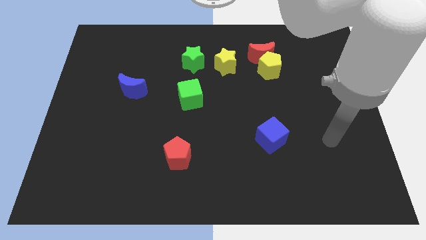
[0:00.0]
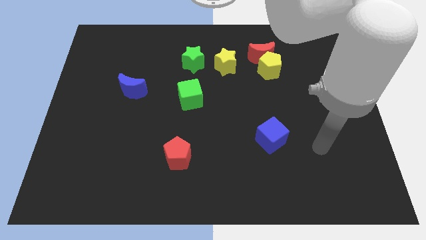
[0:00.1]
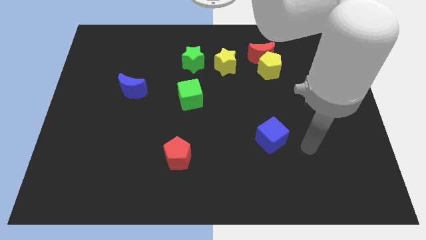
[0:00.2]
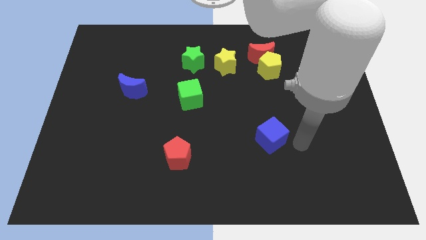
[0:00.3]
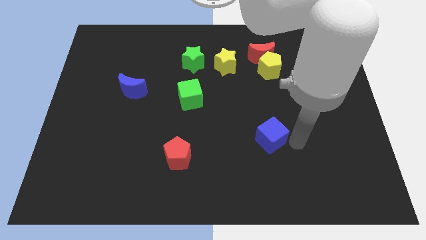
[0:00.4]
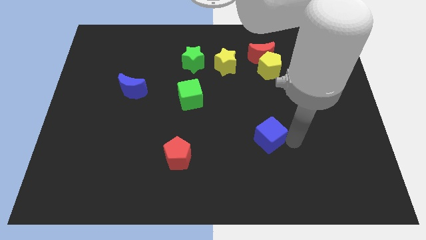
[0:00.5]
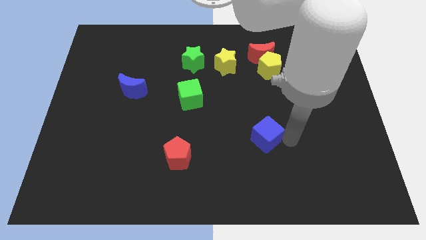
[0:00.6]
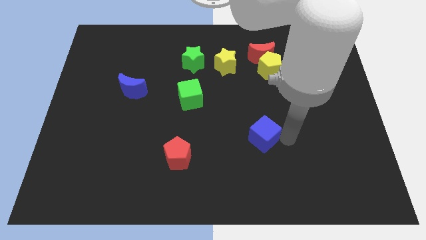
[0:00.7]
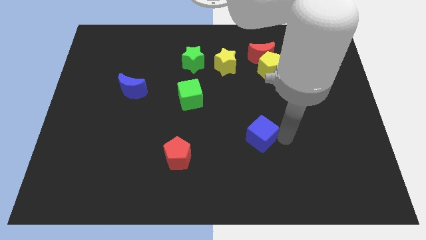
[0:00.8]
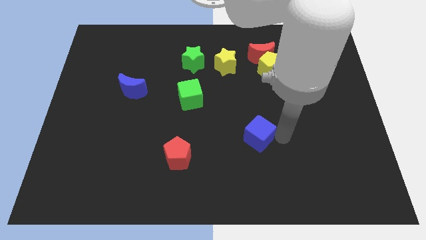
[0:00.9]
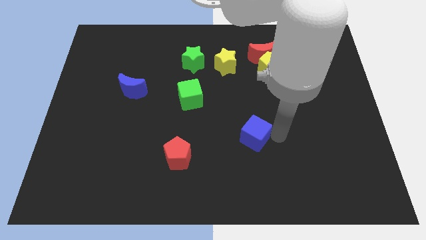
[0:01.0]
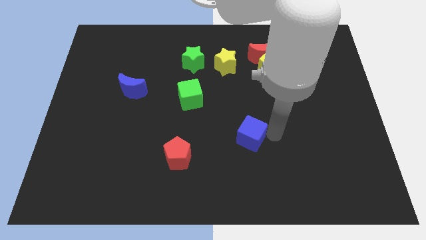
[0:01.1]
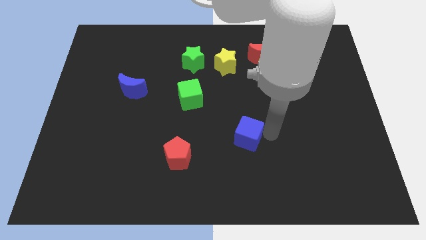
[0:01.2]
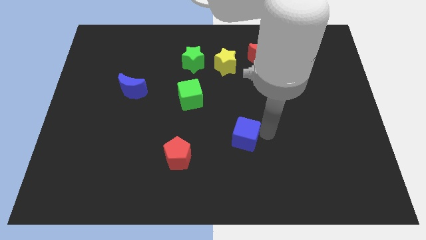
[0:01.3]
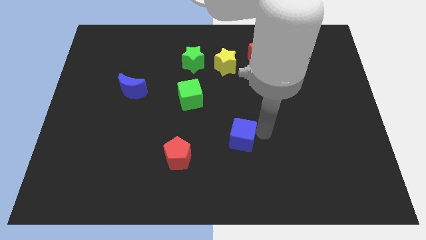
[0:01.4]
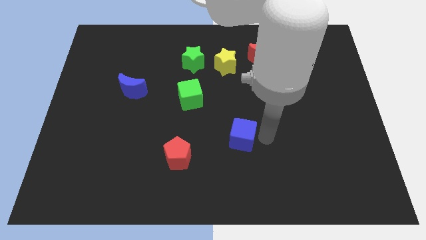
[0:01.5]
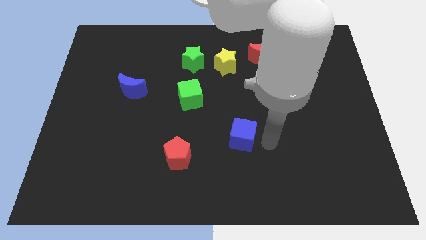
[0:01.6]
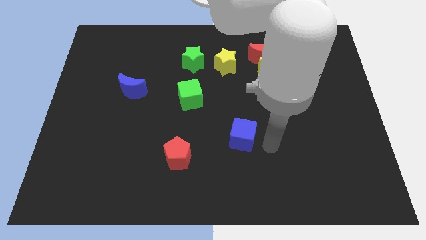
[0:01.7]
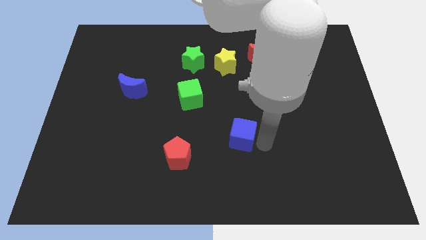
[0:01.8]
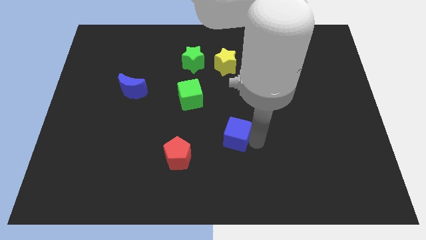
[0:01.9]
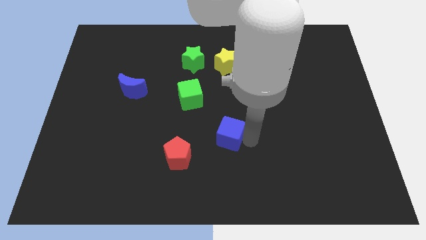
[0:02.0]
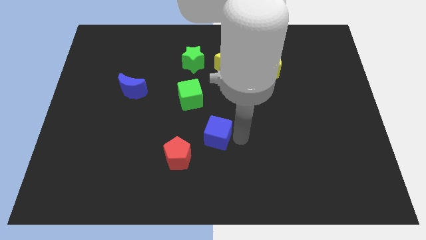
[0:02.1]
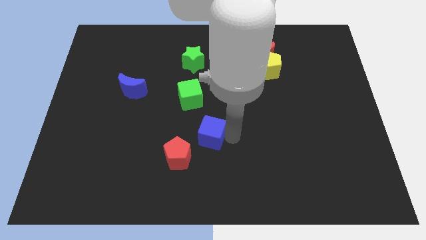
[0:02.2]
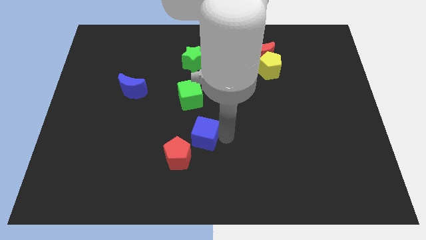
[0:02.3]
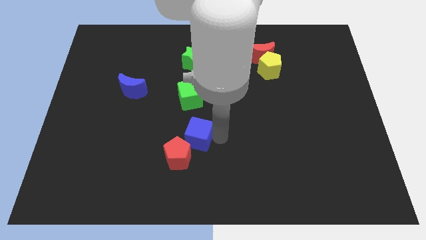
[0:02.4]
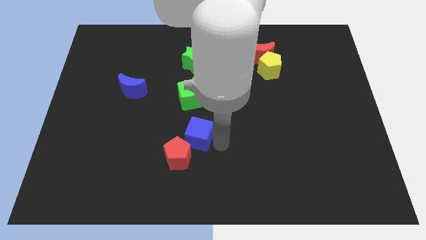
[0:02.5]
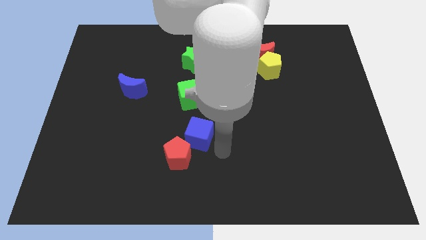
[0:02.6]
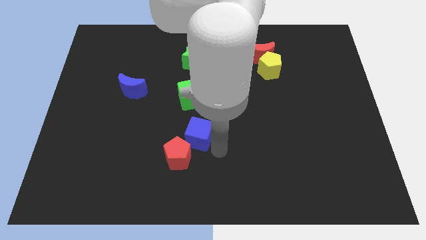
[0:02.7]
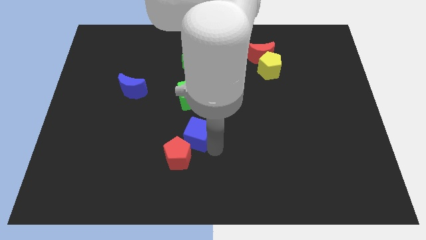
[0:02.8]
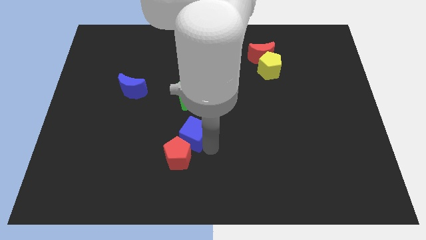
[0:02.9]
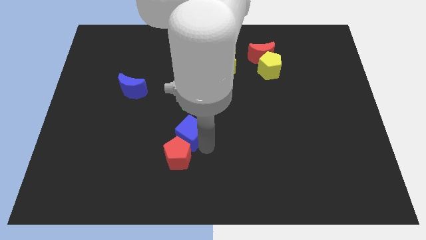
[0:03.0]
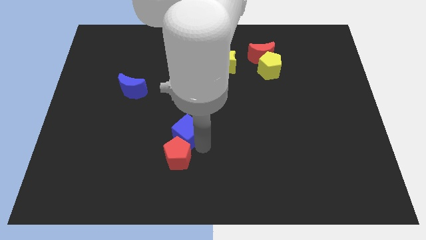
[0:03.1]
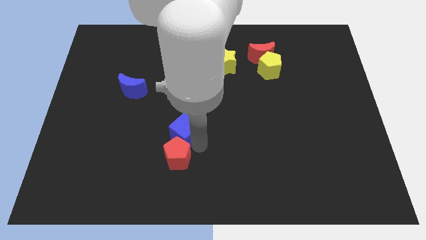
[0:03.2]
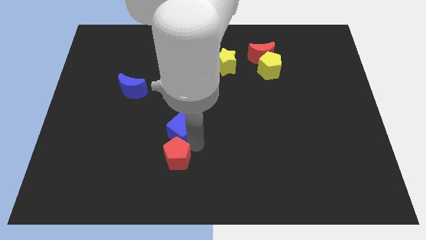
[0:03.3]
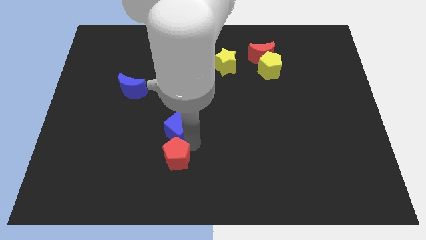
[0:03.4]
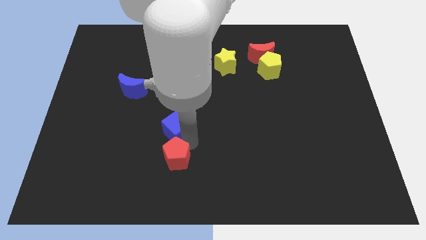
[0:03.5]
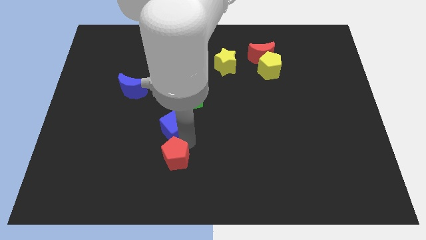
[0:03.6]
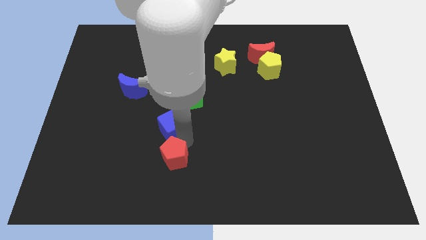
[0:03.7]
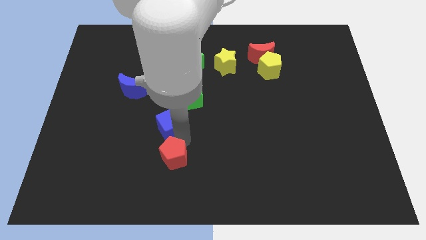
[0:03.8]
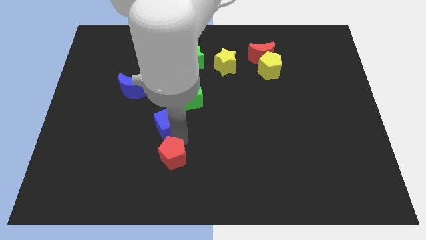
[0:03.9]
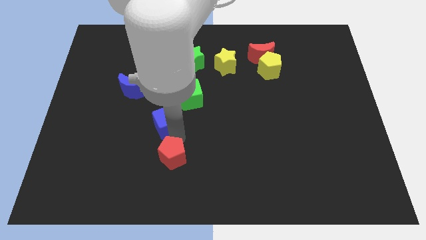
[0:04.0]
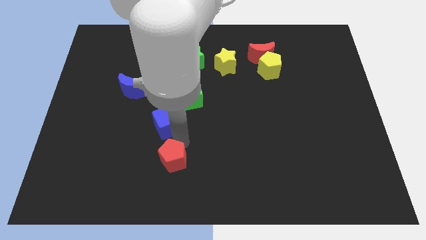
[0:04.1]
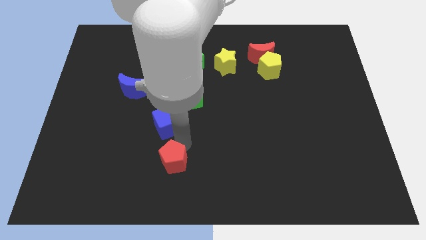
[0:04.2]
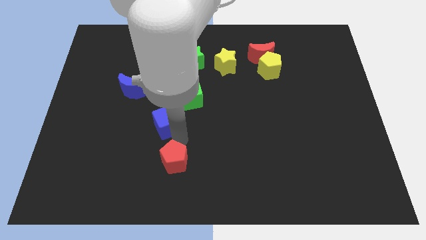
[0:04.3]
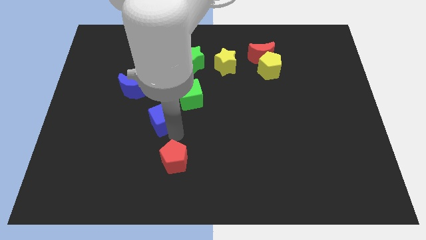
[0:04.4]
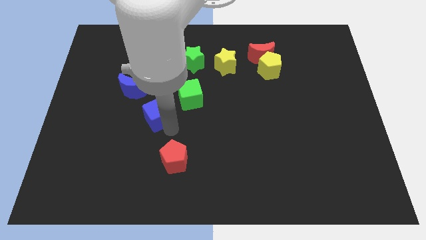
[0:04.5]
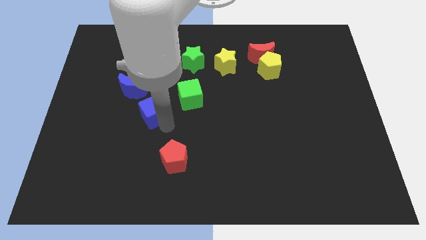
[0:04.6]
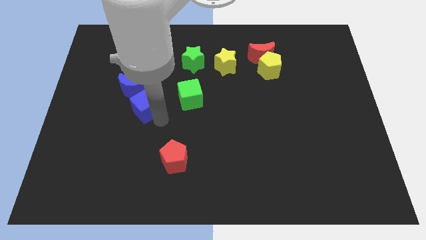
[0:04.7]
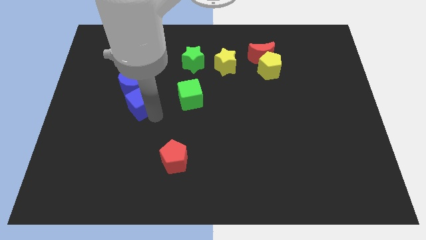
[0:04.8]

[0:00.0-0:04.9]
put the blue cube close to the blue moon

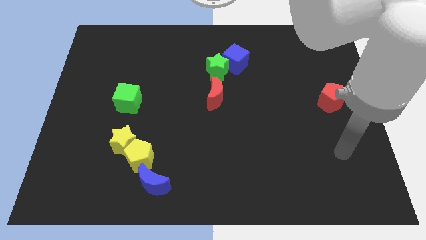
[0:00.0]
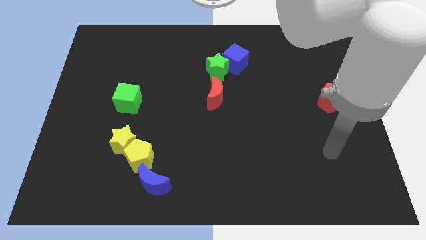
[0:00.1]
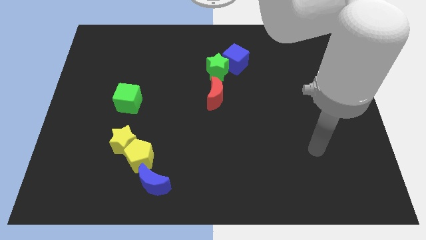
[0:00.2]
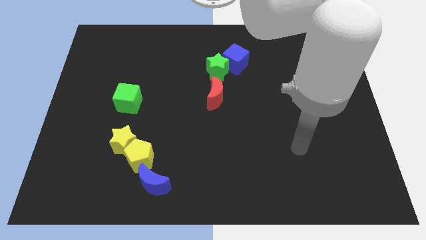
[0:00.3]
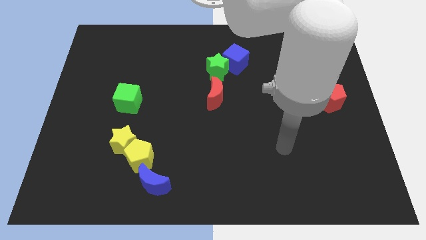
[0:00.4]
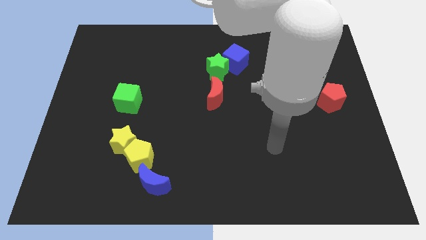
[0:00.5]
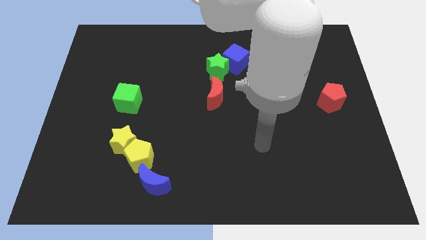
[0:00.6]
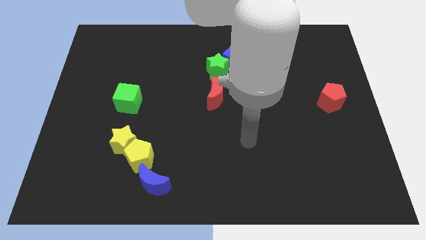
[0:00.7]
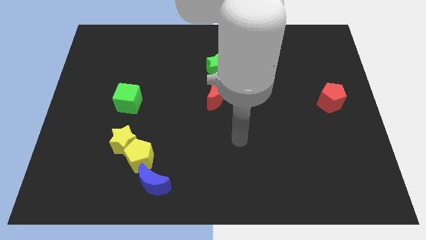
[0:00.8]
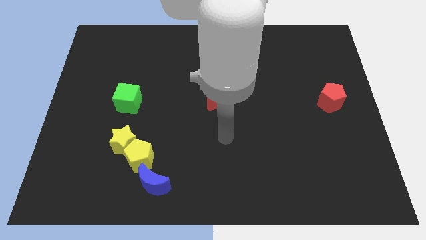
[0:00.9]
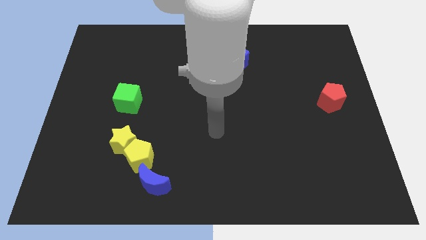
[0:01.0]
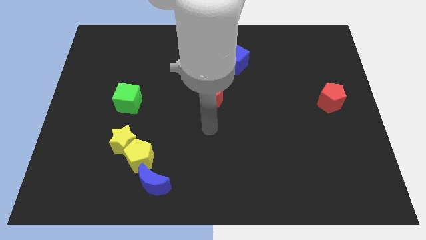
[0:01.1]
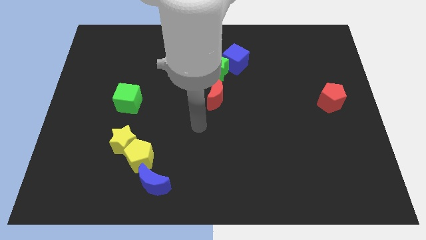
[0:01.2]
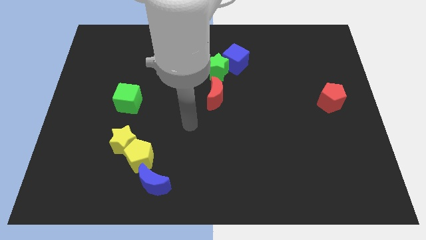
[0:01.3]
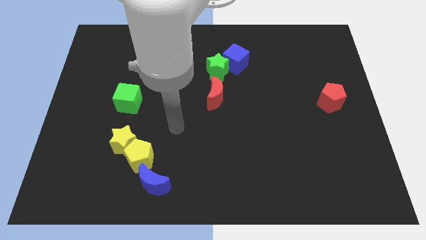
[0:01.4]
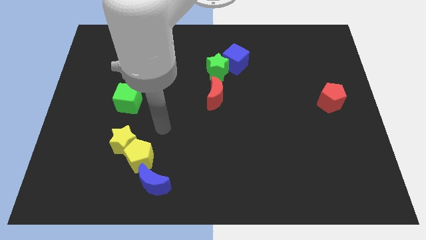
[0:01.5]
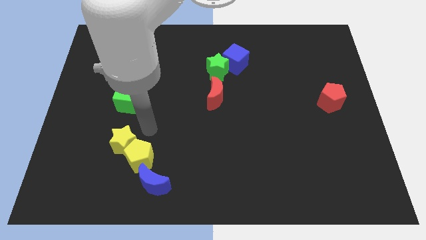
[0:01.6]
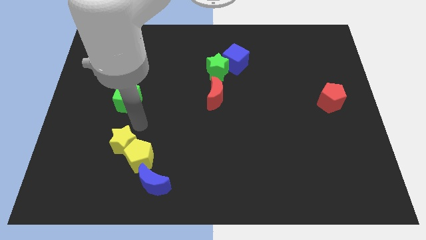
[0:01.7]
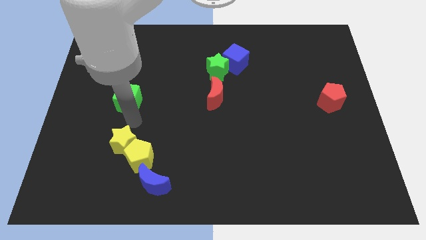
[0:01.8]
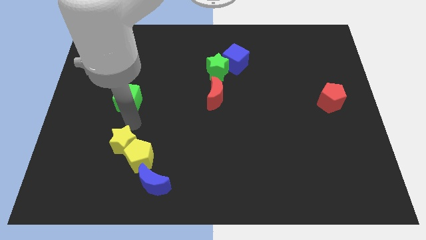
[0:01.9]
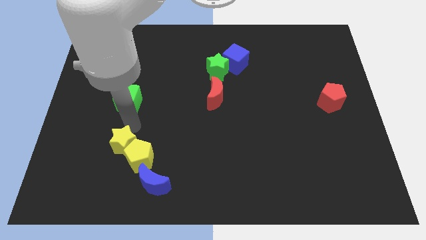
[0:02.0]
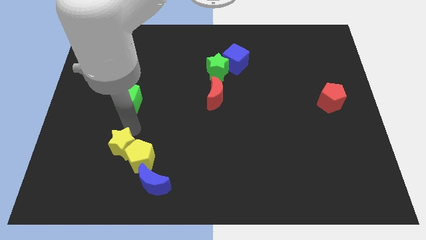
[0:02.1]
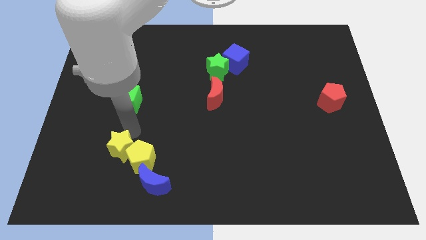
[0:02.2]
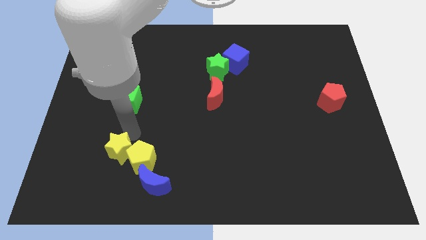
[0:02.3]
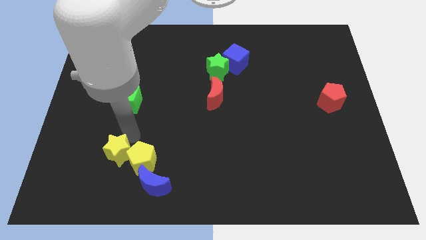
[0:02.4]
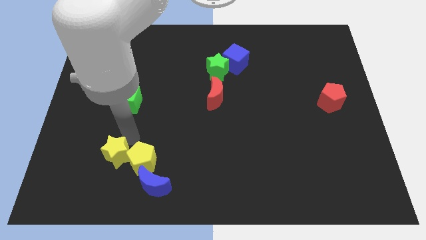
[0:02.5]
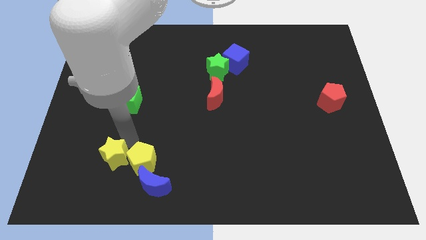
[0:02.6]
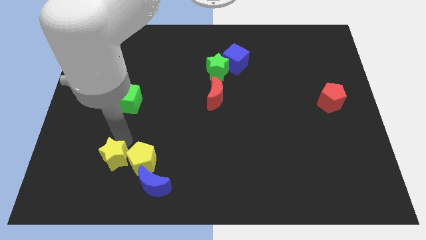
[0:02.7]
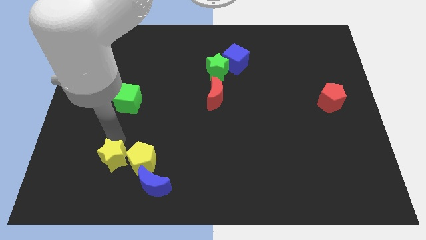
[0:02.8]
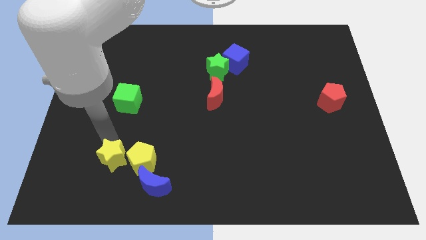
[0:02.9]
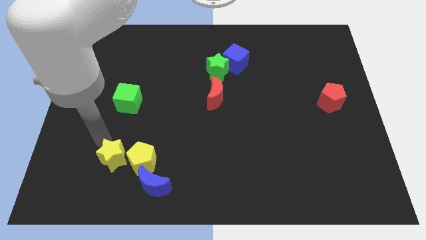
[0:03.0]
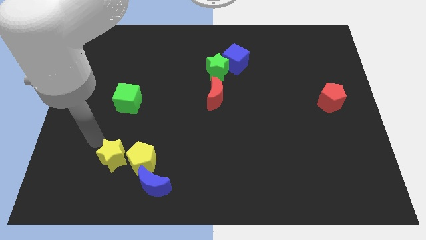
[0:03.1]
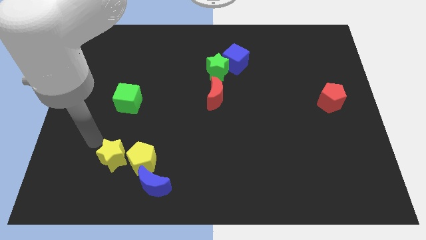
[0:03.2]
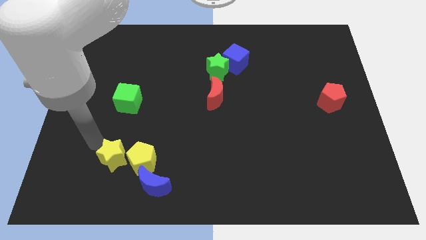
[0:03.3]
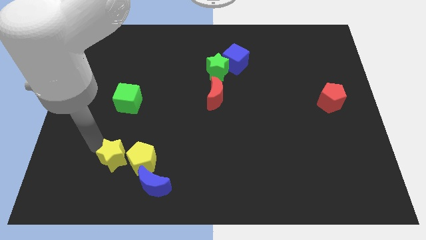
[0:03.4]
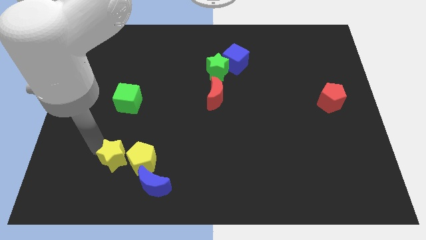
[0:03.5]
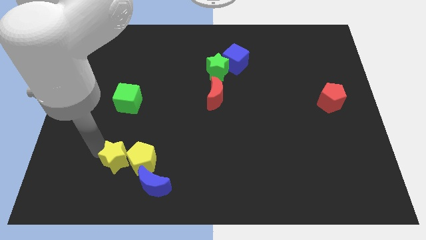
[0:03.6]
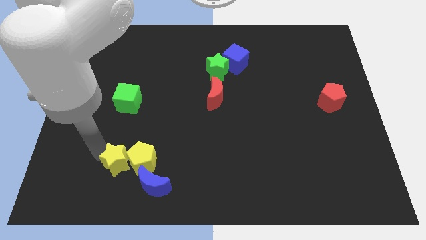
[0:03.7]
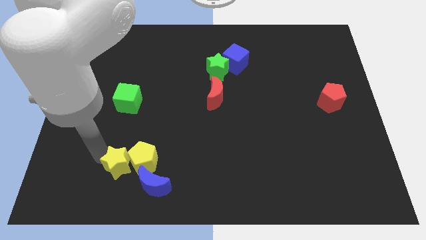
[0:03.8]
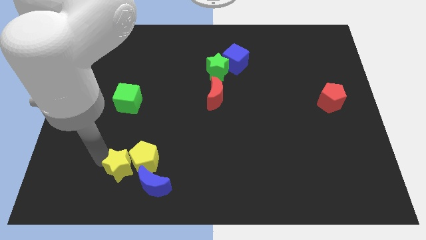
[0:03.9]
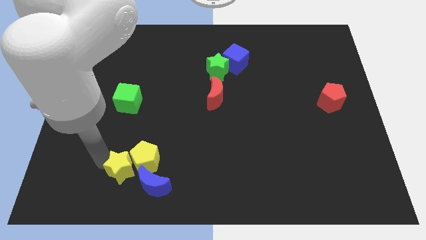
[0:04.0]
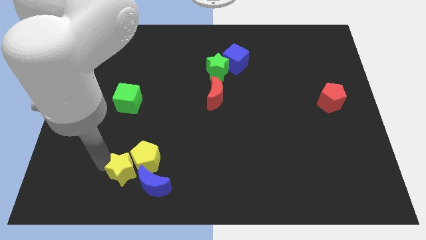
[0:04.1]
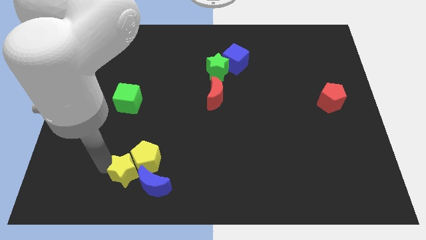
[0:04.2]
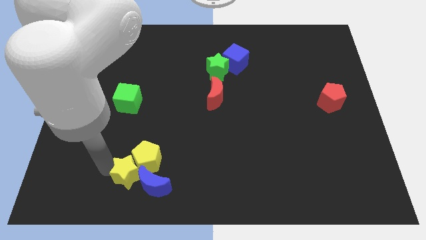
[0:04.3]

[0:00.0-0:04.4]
move the yellow star to the blue moon
